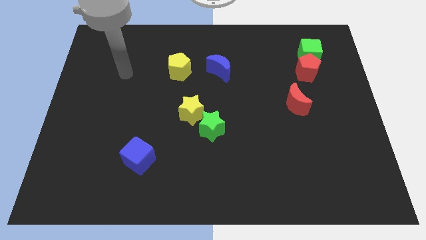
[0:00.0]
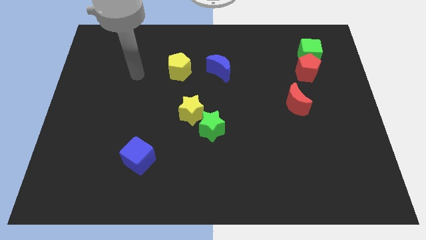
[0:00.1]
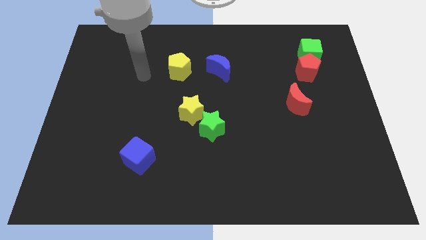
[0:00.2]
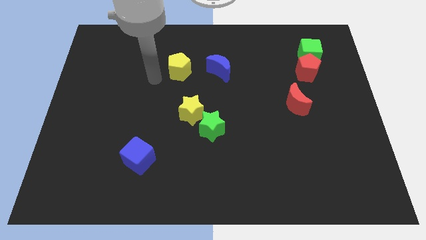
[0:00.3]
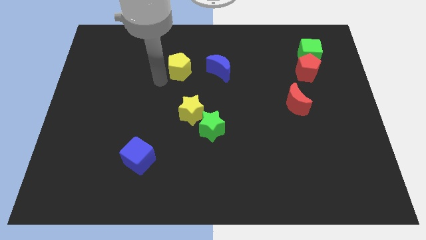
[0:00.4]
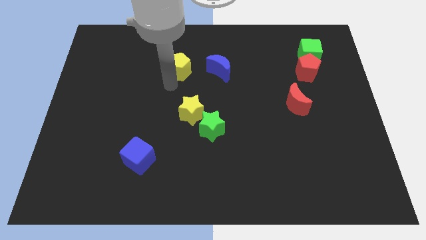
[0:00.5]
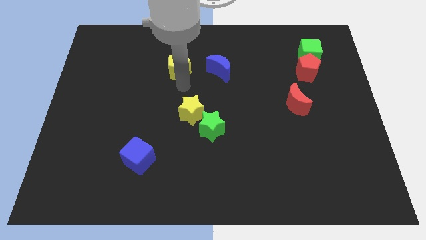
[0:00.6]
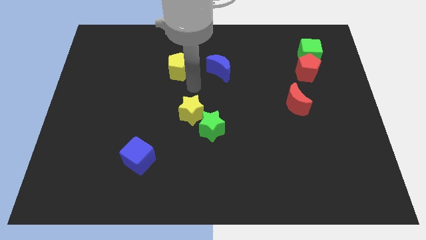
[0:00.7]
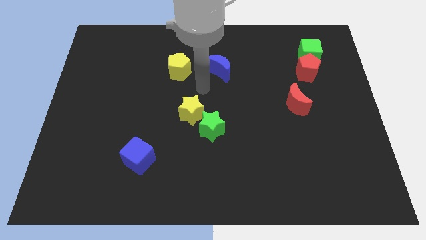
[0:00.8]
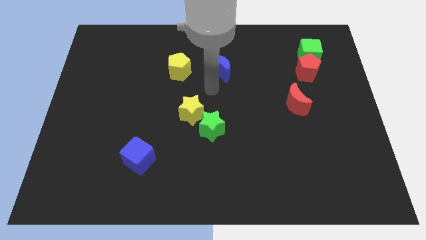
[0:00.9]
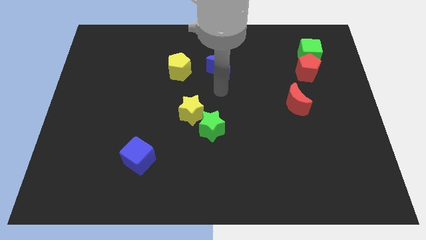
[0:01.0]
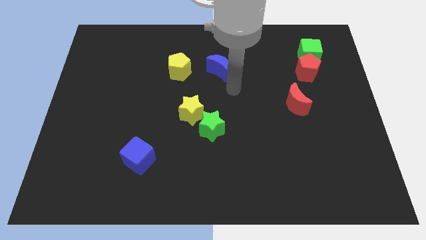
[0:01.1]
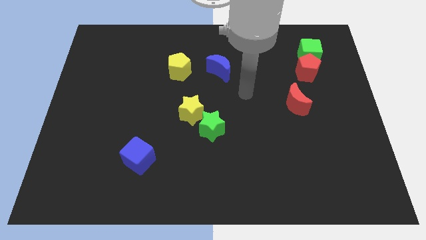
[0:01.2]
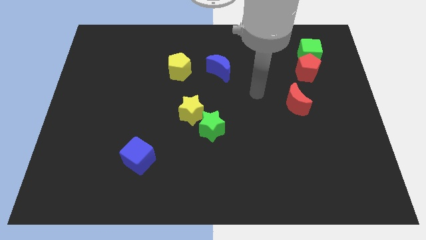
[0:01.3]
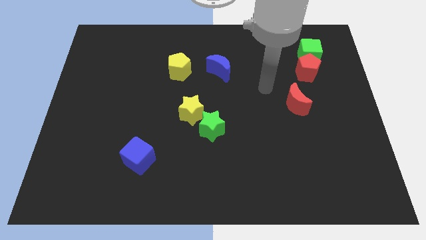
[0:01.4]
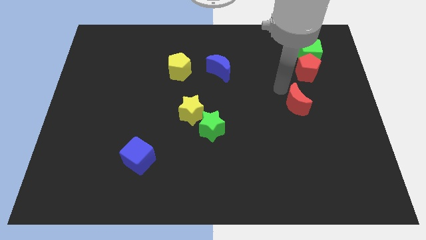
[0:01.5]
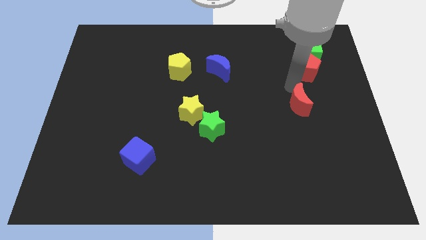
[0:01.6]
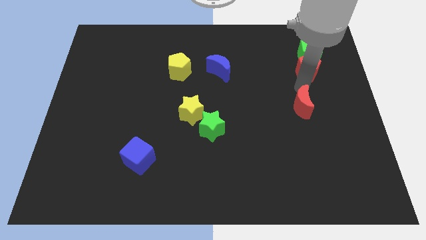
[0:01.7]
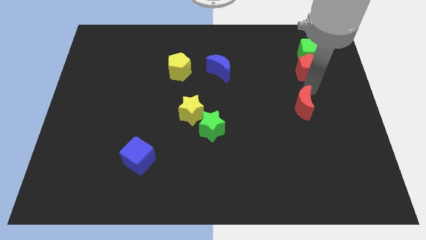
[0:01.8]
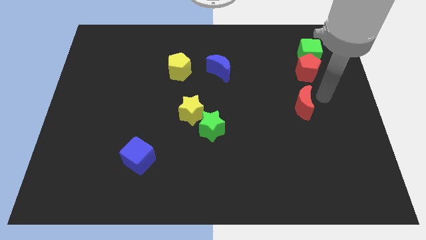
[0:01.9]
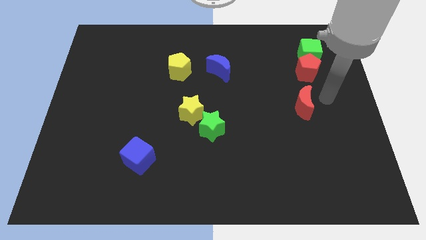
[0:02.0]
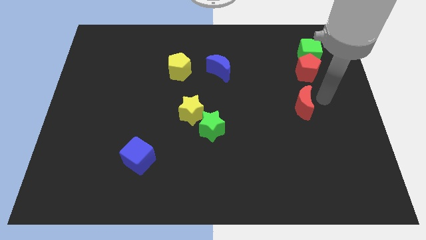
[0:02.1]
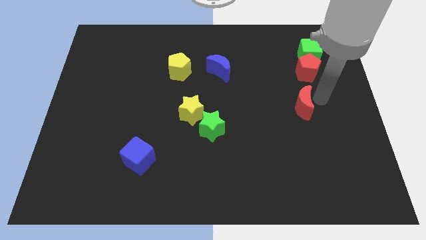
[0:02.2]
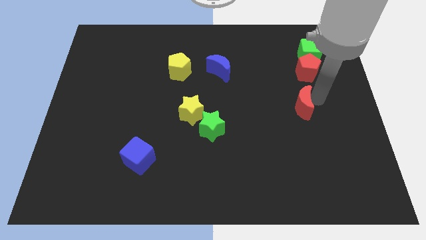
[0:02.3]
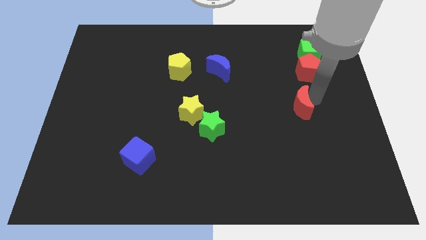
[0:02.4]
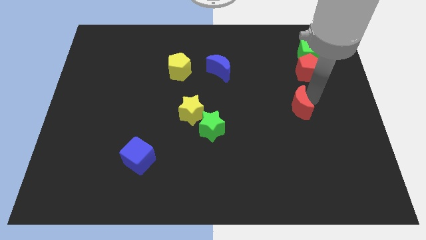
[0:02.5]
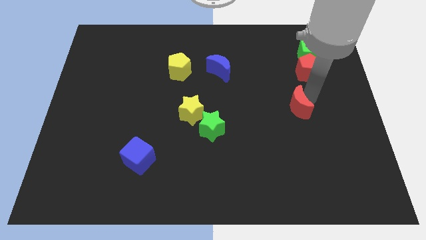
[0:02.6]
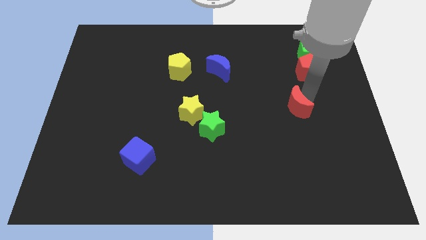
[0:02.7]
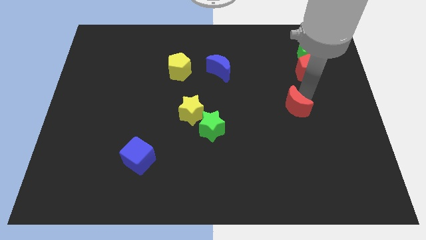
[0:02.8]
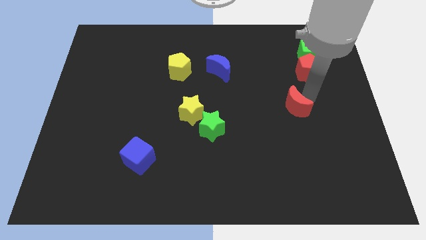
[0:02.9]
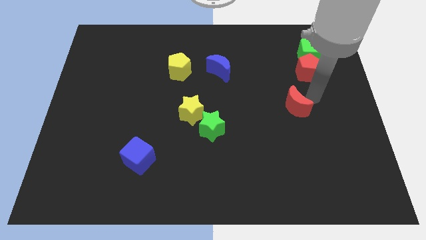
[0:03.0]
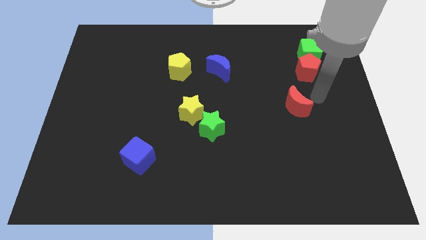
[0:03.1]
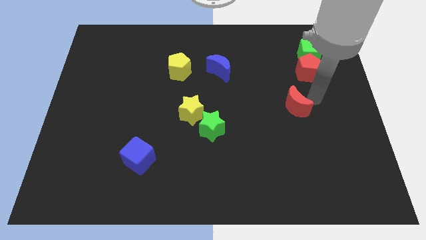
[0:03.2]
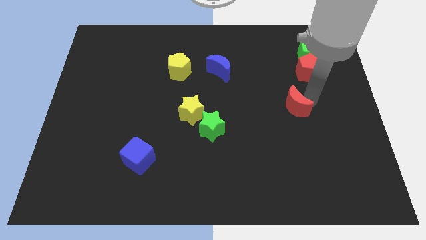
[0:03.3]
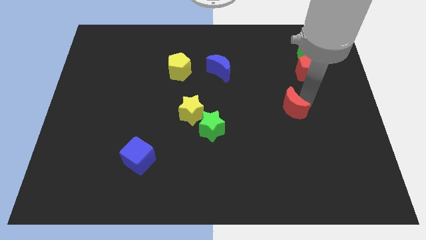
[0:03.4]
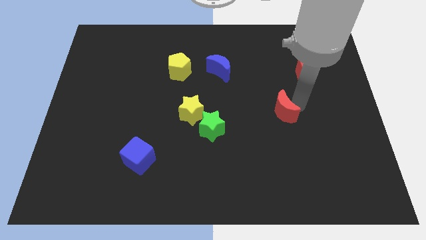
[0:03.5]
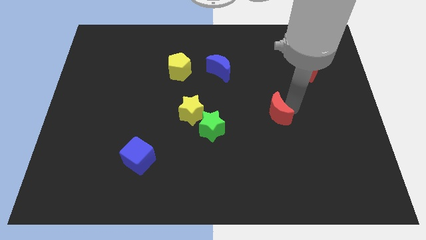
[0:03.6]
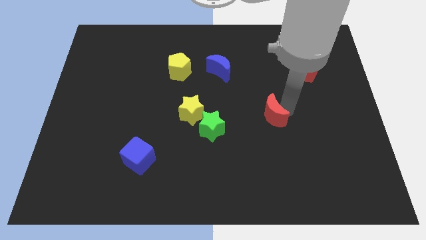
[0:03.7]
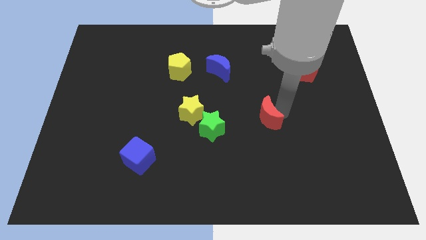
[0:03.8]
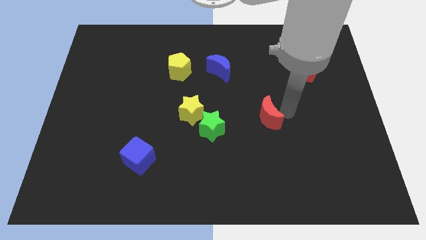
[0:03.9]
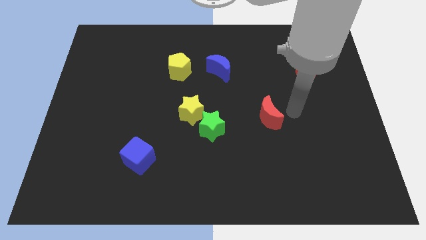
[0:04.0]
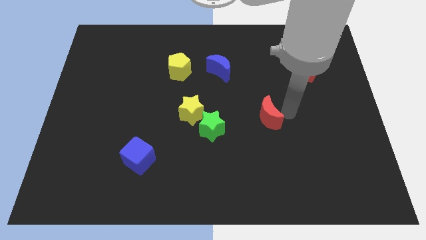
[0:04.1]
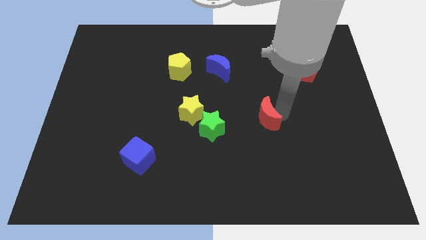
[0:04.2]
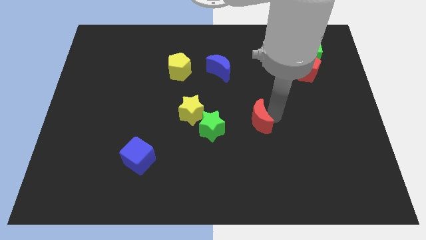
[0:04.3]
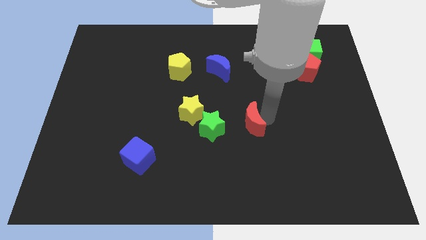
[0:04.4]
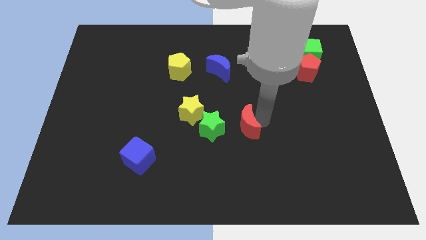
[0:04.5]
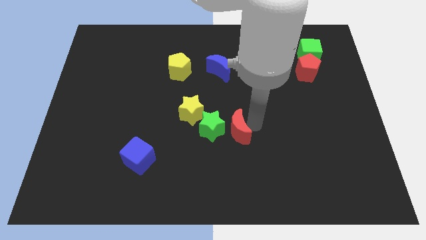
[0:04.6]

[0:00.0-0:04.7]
move the red moon towards the green star

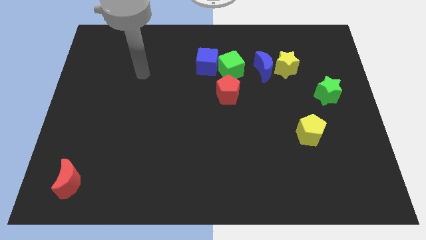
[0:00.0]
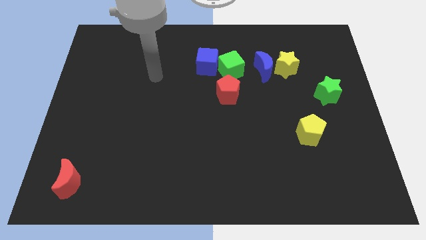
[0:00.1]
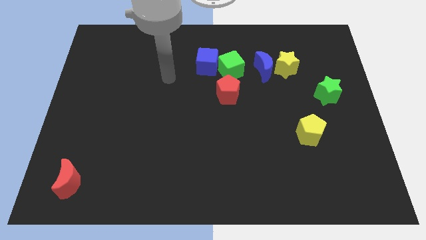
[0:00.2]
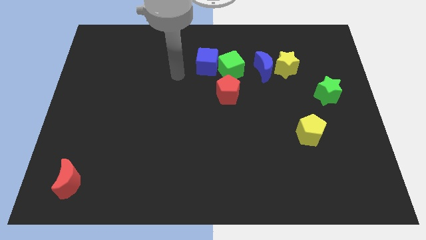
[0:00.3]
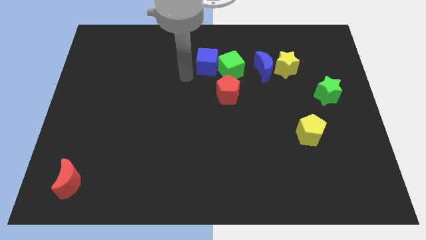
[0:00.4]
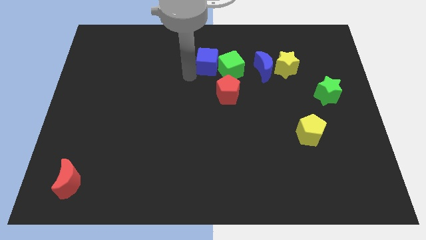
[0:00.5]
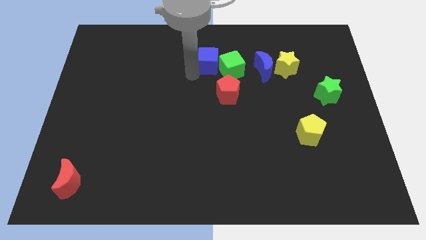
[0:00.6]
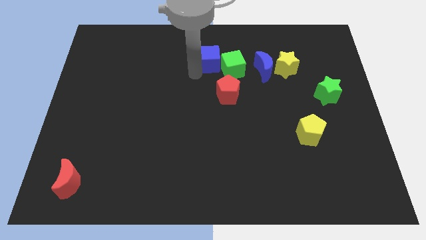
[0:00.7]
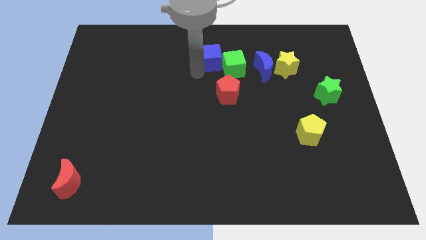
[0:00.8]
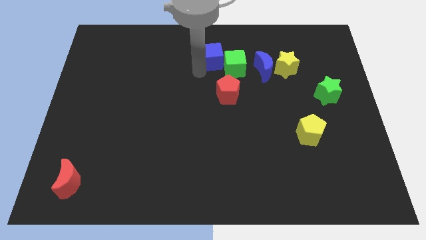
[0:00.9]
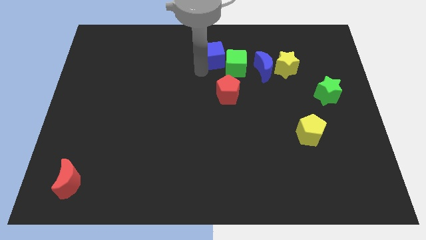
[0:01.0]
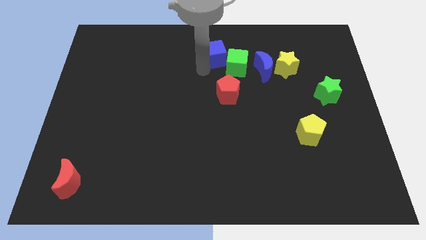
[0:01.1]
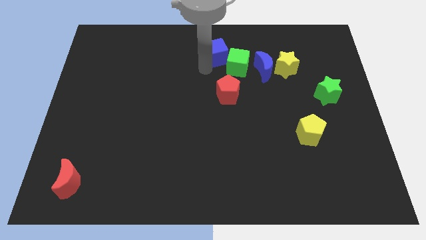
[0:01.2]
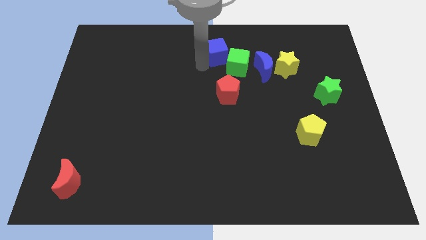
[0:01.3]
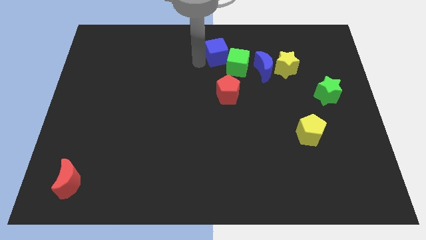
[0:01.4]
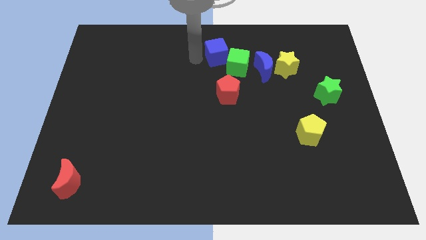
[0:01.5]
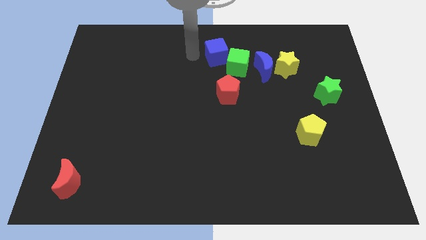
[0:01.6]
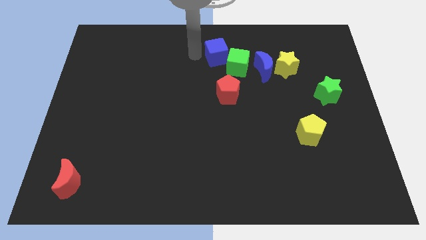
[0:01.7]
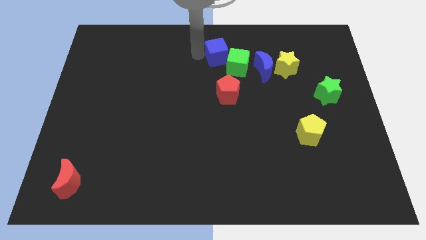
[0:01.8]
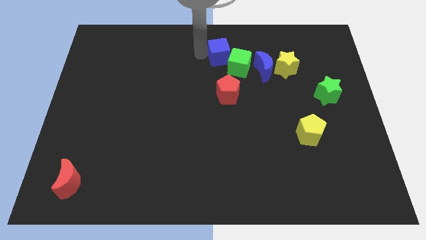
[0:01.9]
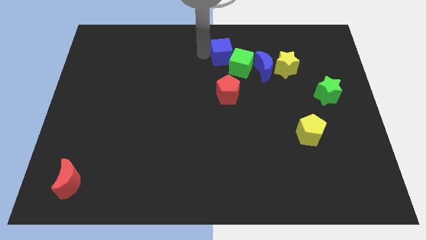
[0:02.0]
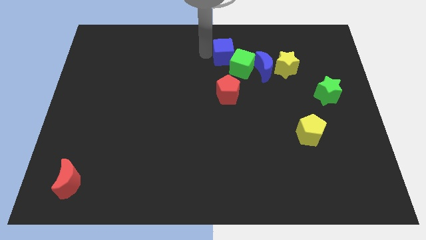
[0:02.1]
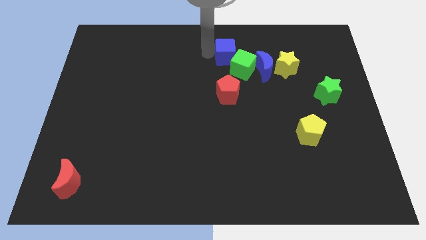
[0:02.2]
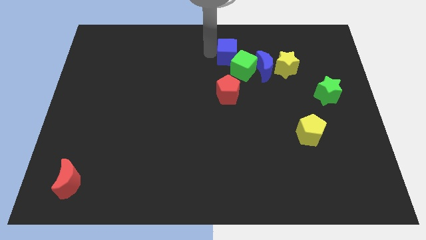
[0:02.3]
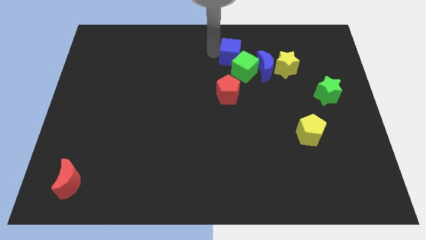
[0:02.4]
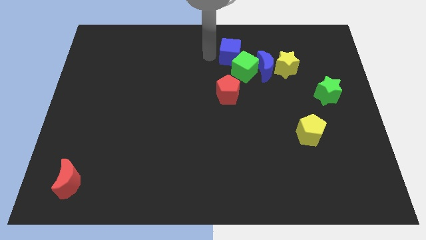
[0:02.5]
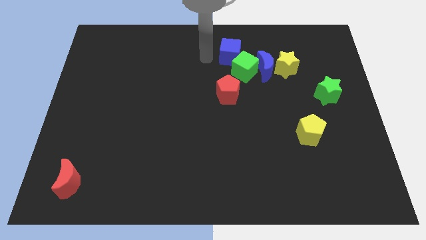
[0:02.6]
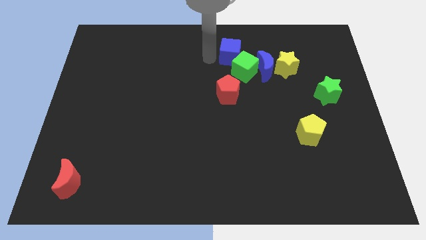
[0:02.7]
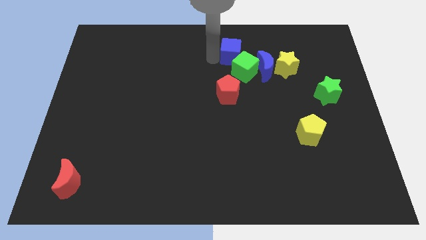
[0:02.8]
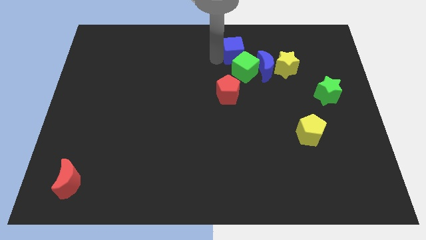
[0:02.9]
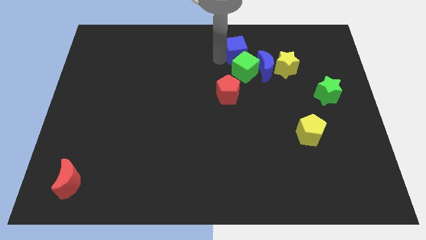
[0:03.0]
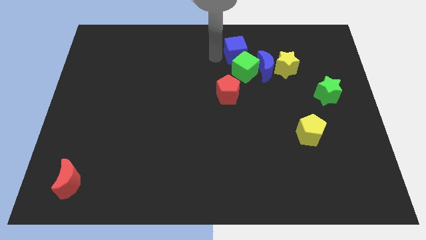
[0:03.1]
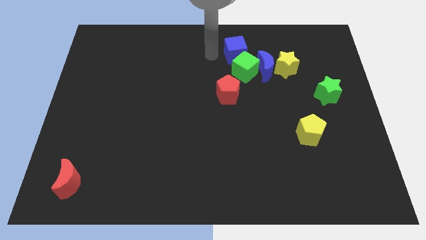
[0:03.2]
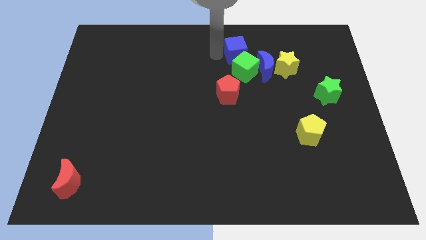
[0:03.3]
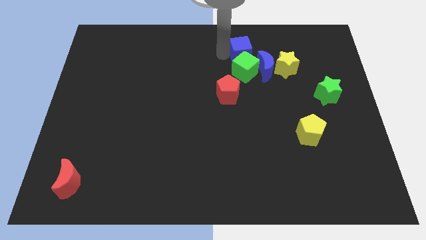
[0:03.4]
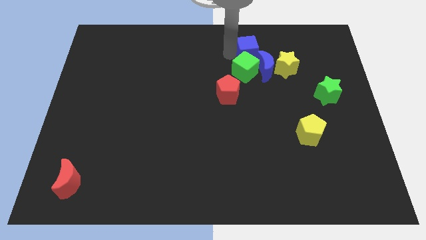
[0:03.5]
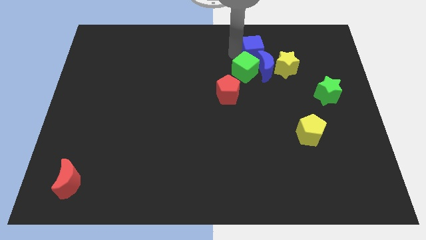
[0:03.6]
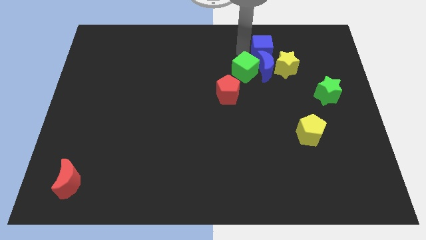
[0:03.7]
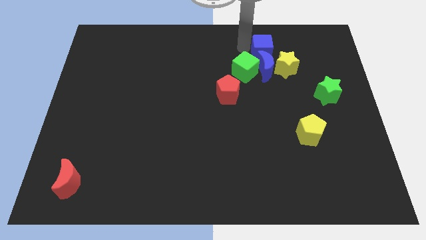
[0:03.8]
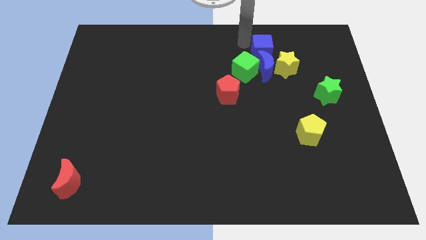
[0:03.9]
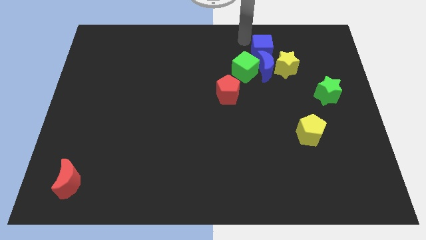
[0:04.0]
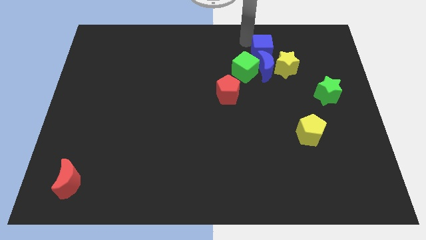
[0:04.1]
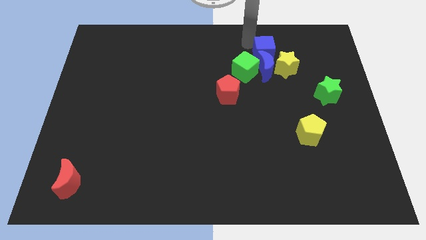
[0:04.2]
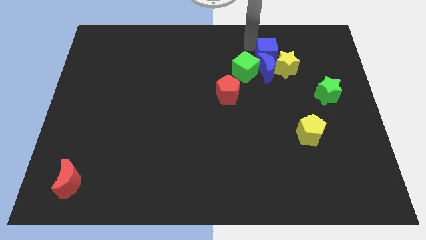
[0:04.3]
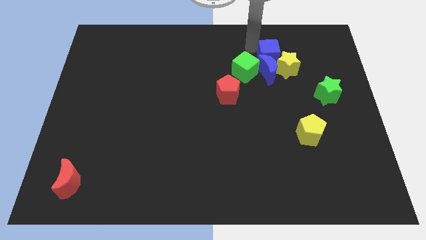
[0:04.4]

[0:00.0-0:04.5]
slide the blue cube next to the yellow star
